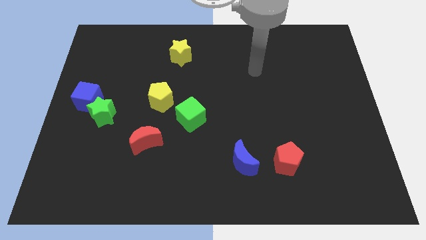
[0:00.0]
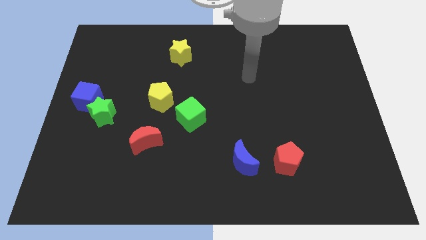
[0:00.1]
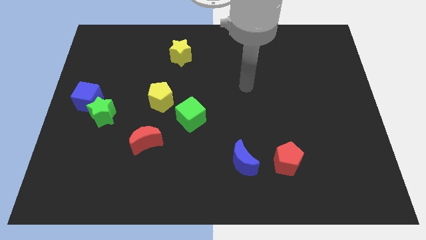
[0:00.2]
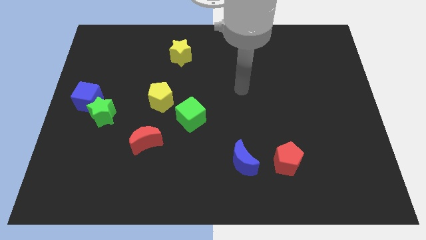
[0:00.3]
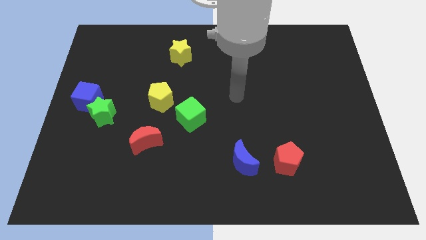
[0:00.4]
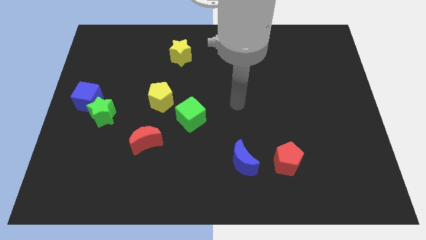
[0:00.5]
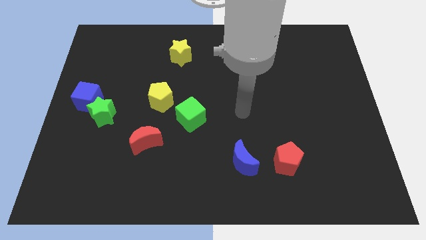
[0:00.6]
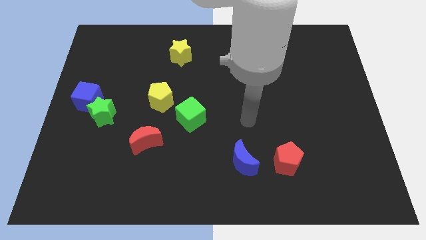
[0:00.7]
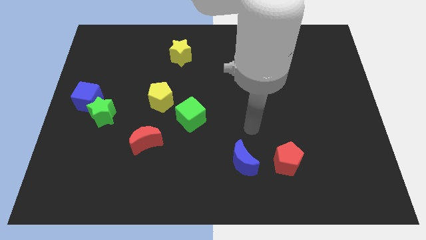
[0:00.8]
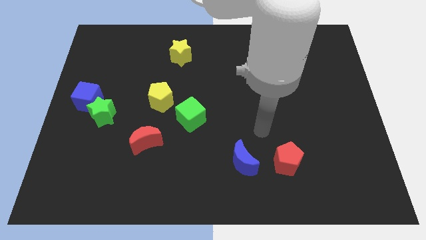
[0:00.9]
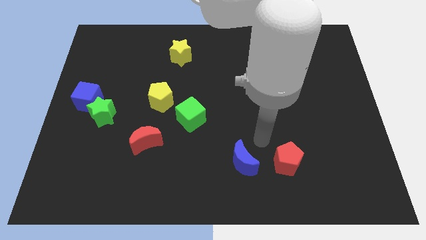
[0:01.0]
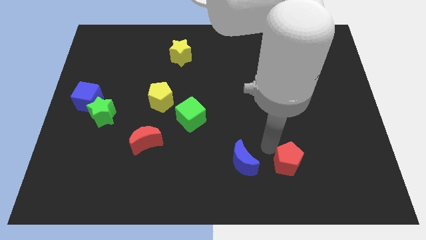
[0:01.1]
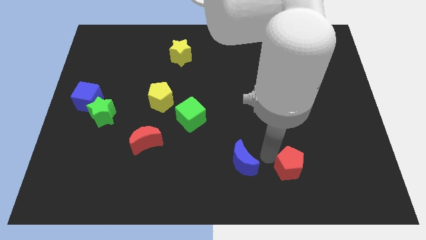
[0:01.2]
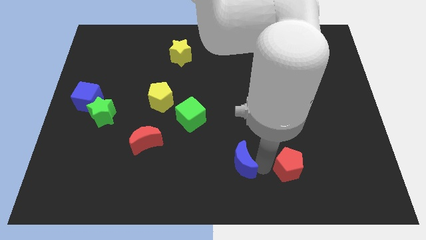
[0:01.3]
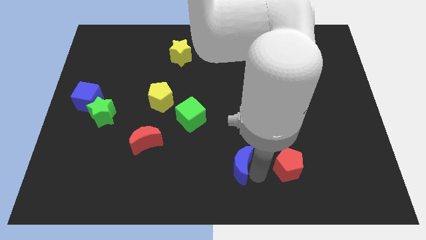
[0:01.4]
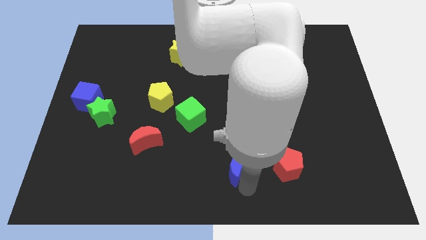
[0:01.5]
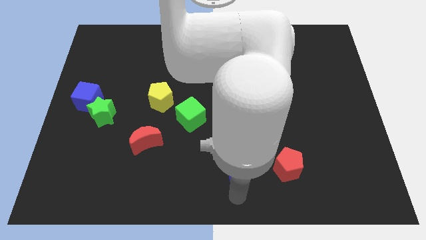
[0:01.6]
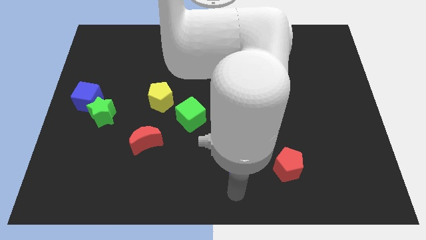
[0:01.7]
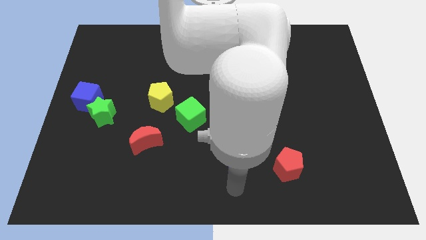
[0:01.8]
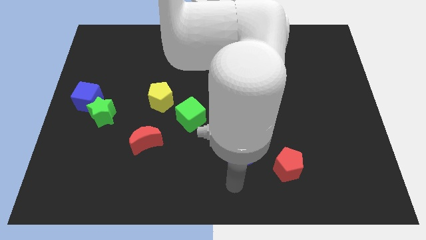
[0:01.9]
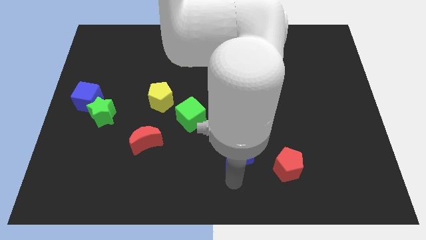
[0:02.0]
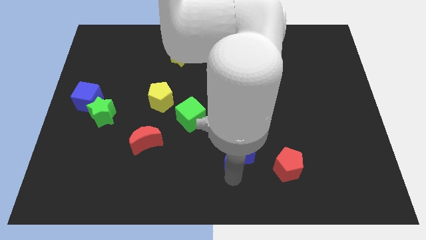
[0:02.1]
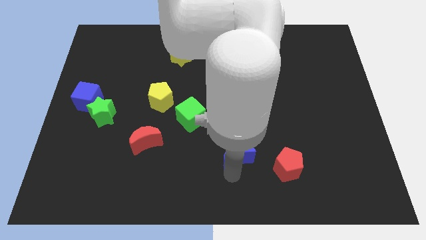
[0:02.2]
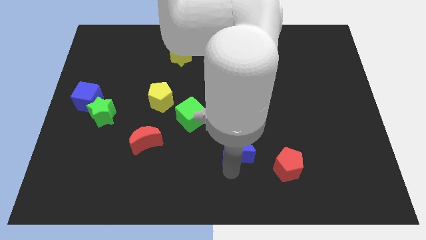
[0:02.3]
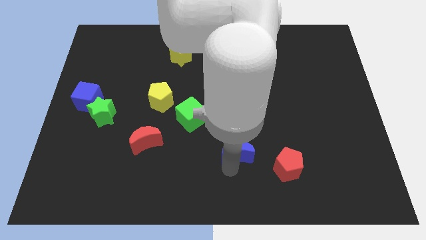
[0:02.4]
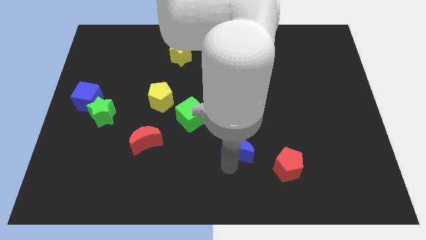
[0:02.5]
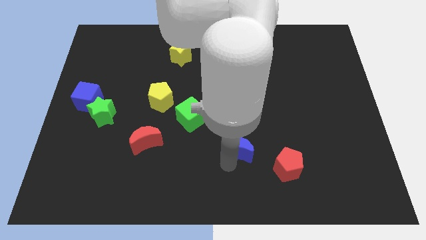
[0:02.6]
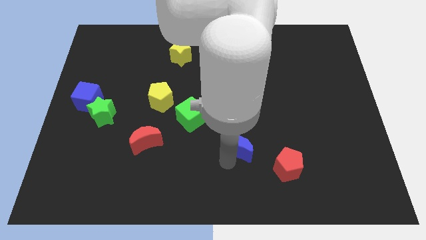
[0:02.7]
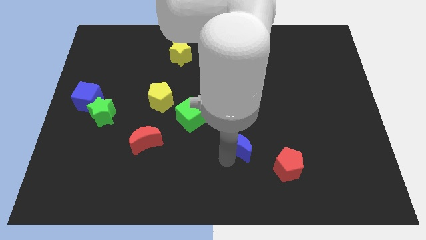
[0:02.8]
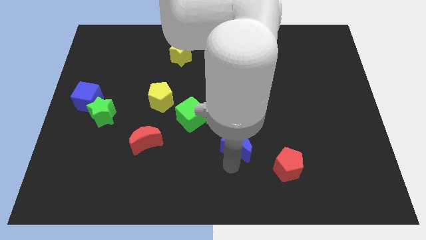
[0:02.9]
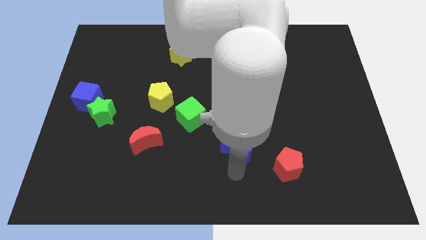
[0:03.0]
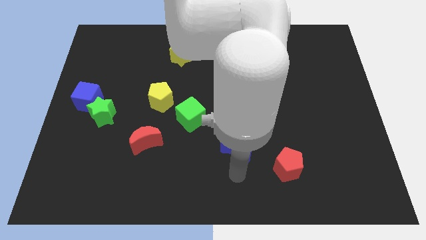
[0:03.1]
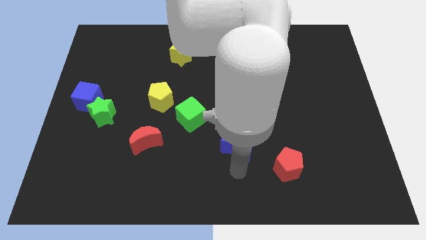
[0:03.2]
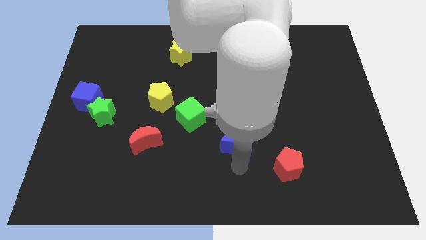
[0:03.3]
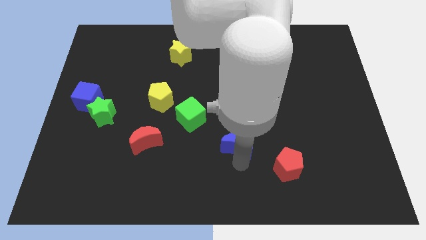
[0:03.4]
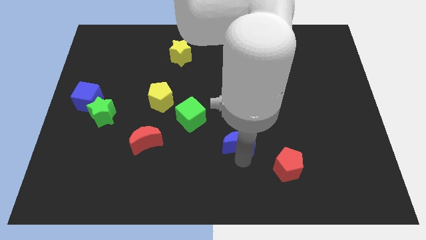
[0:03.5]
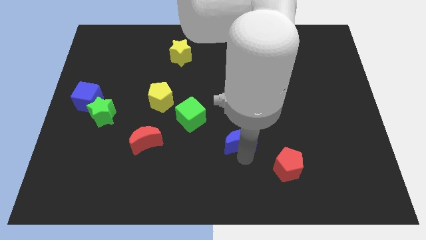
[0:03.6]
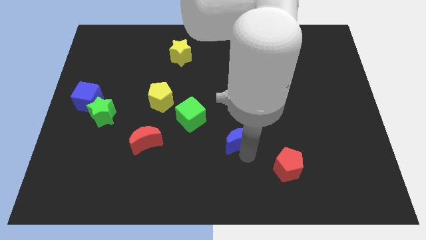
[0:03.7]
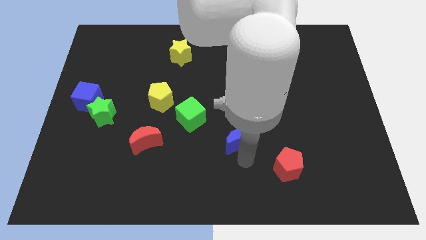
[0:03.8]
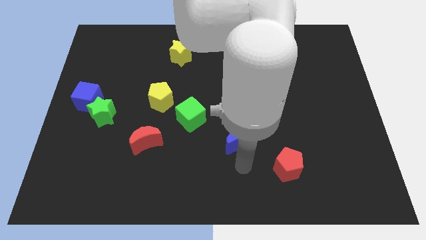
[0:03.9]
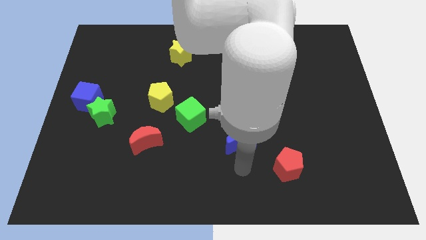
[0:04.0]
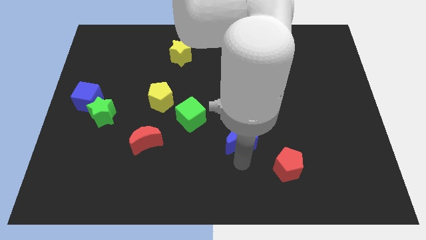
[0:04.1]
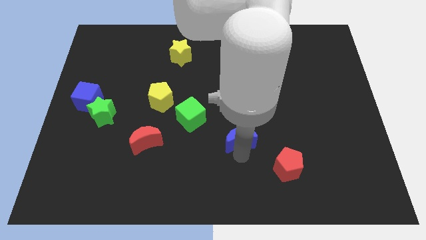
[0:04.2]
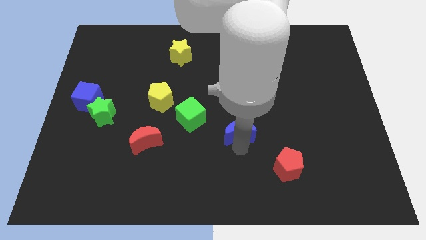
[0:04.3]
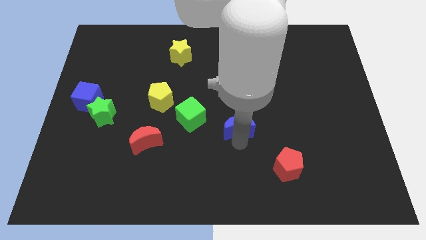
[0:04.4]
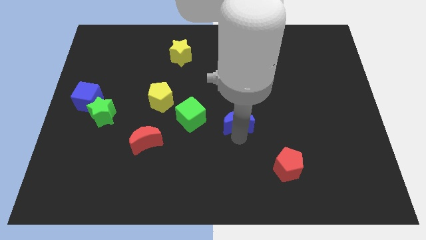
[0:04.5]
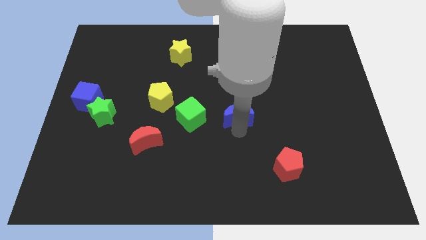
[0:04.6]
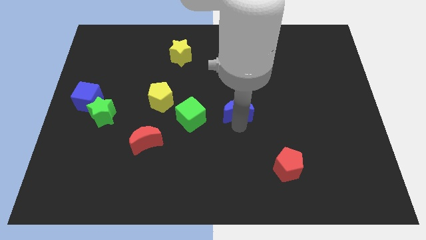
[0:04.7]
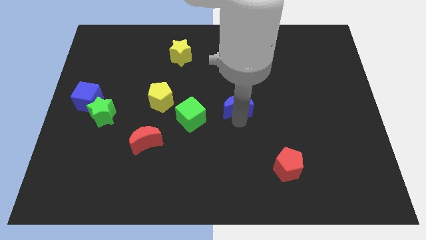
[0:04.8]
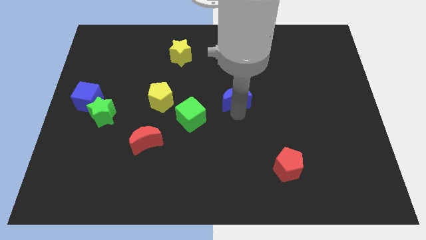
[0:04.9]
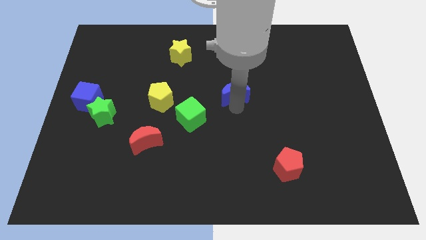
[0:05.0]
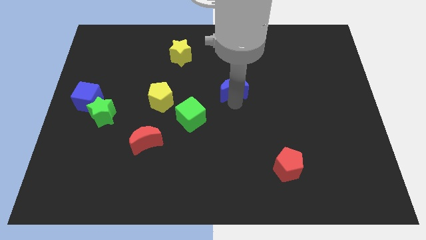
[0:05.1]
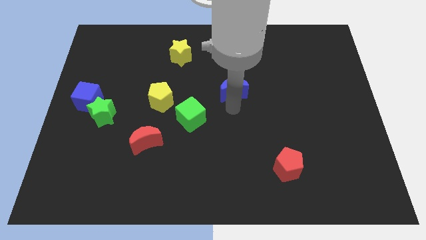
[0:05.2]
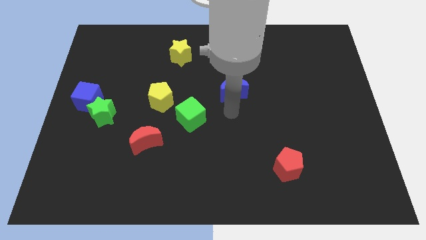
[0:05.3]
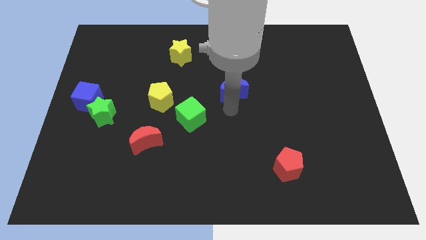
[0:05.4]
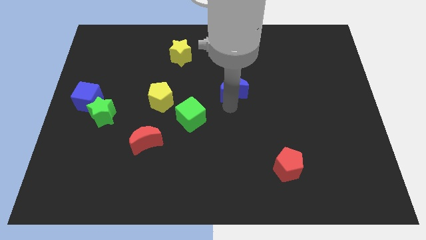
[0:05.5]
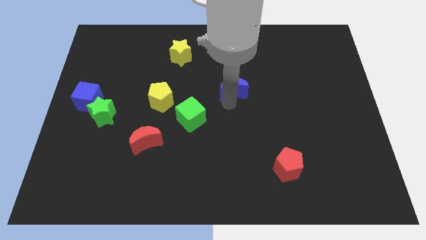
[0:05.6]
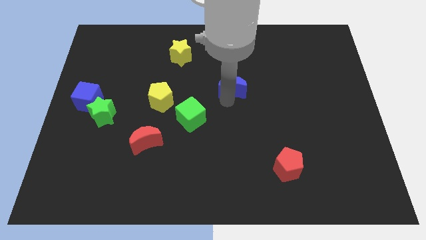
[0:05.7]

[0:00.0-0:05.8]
push the blue moon up

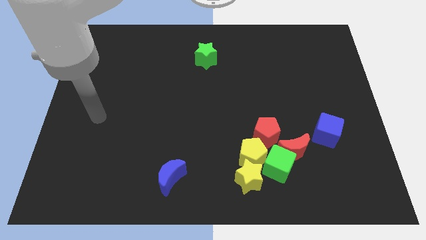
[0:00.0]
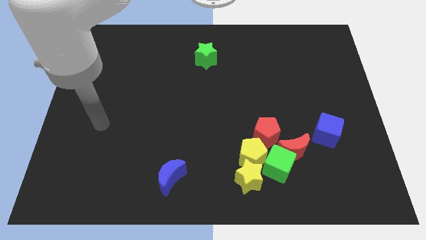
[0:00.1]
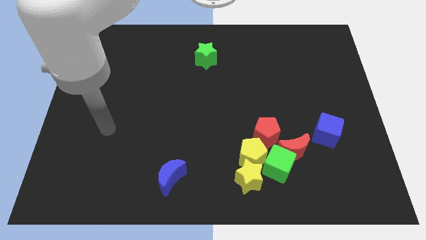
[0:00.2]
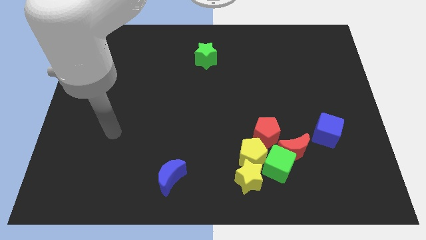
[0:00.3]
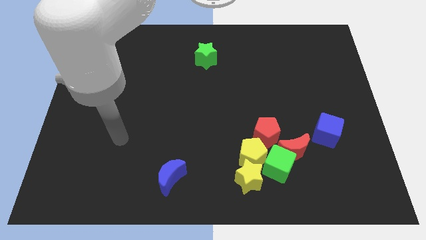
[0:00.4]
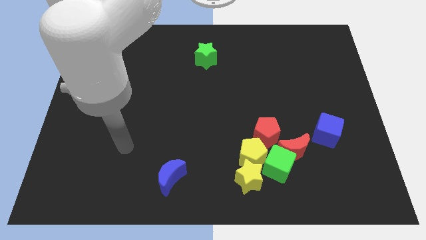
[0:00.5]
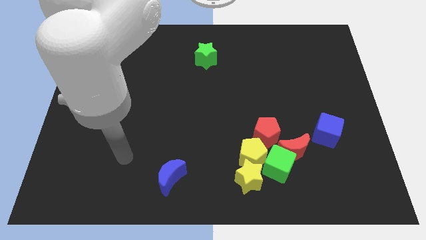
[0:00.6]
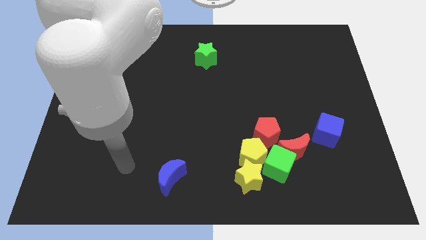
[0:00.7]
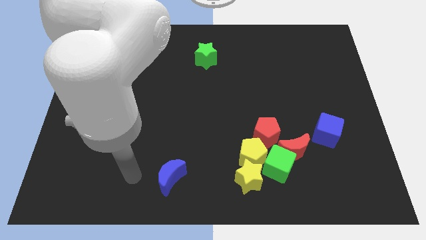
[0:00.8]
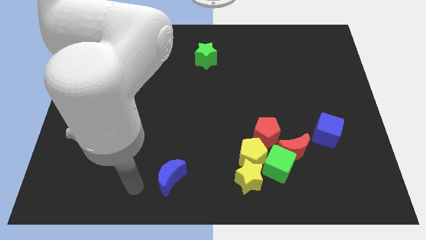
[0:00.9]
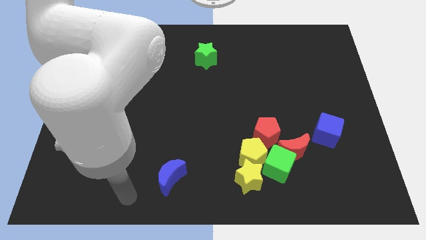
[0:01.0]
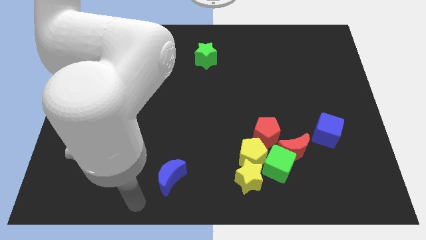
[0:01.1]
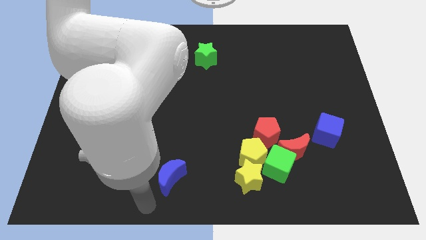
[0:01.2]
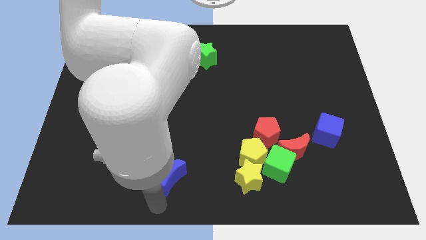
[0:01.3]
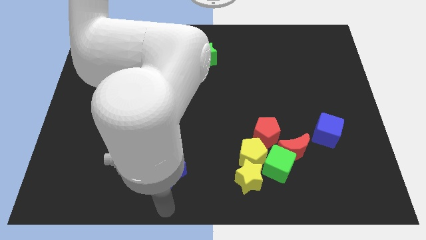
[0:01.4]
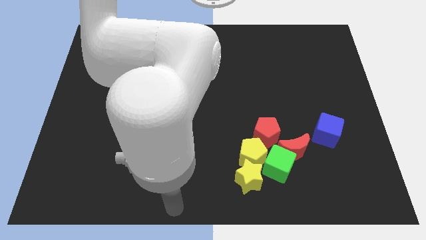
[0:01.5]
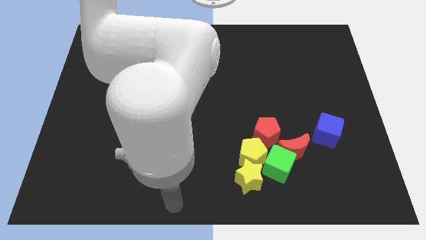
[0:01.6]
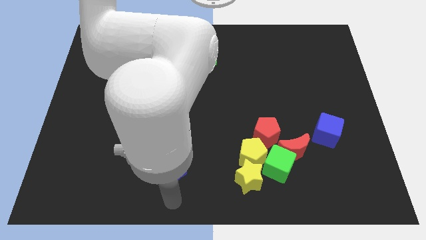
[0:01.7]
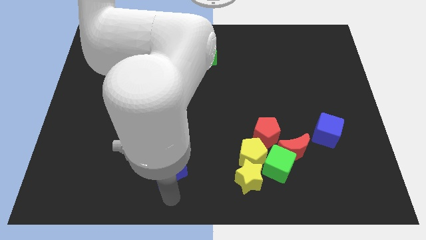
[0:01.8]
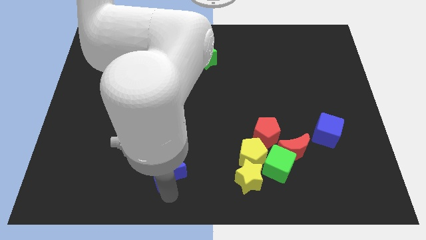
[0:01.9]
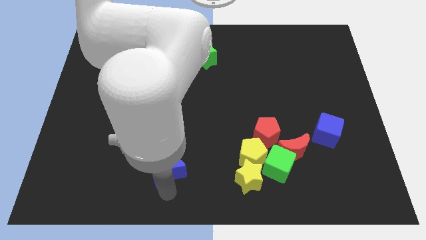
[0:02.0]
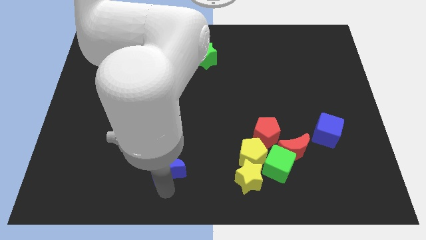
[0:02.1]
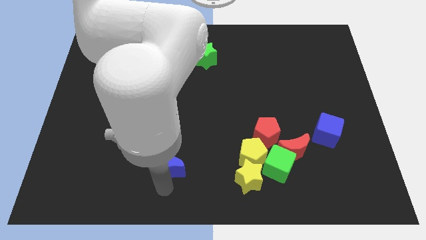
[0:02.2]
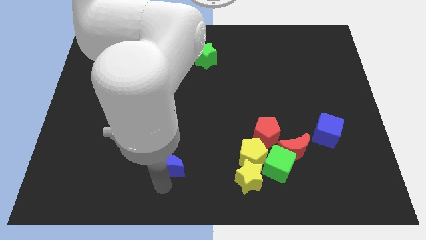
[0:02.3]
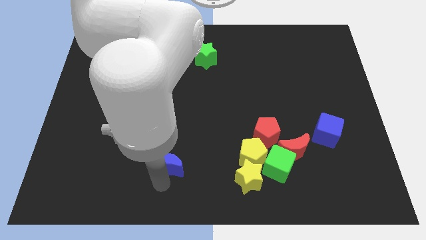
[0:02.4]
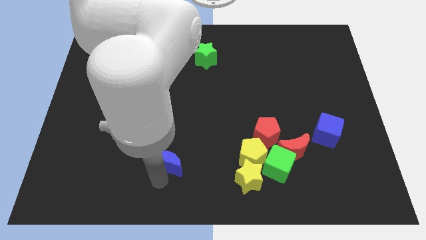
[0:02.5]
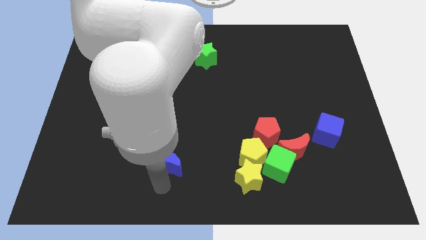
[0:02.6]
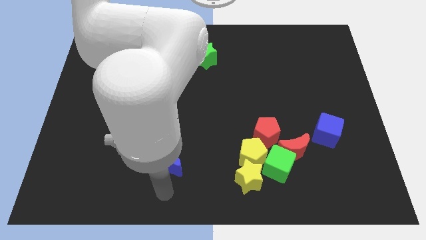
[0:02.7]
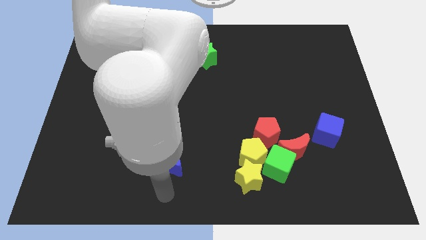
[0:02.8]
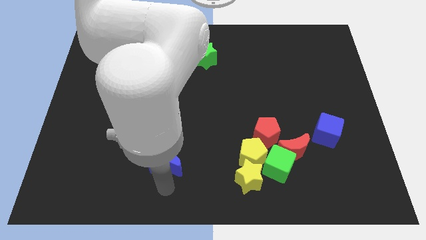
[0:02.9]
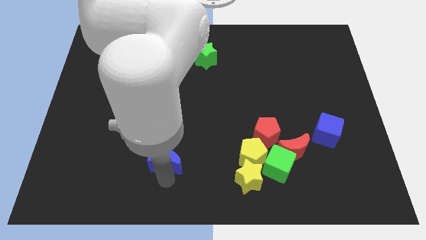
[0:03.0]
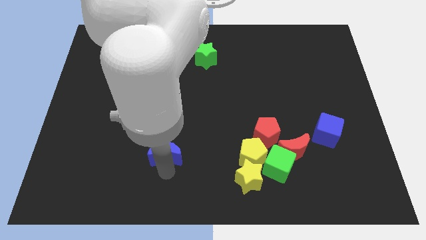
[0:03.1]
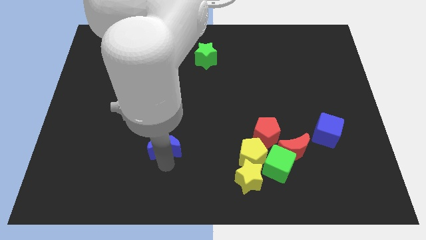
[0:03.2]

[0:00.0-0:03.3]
slide the blue moon a little bit upwards
